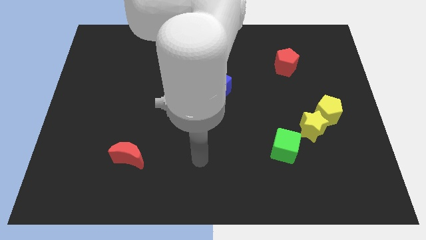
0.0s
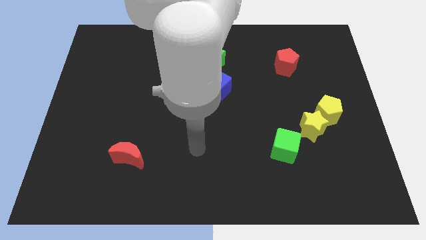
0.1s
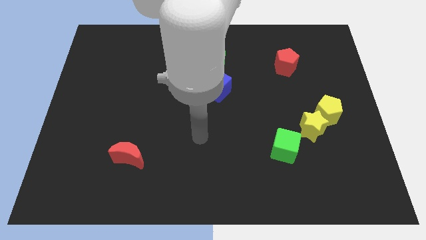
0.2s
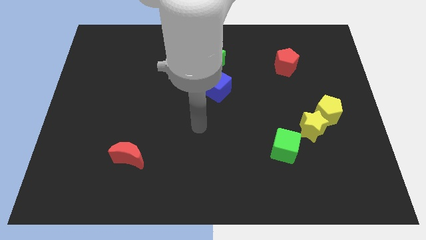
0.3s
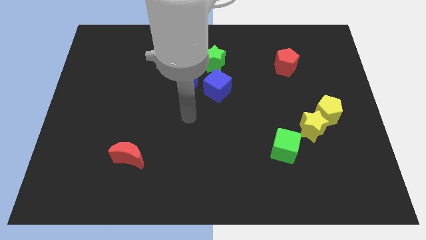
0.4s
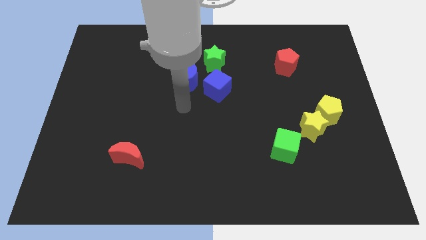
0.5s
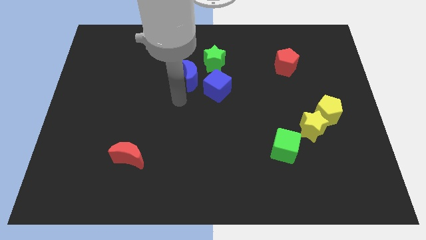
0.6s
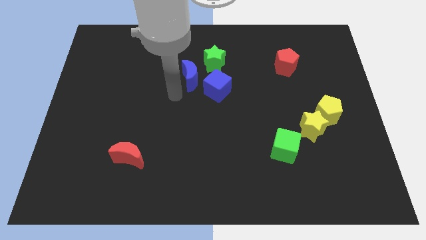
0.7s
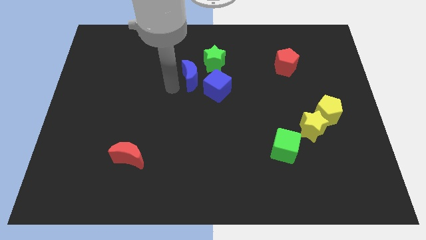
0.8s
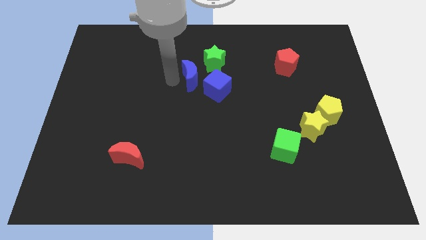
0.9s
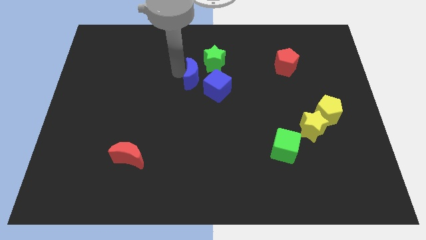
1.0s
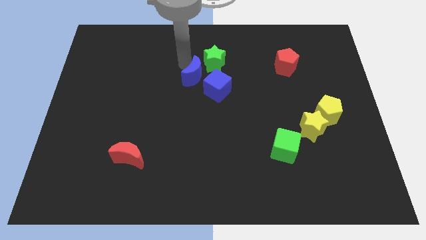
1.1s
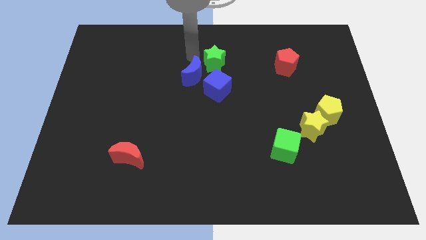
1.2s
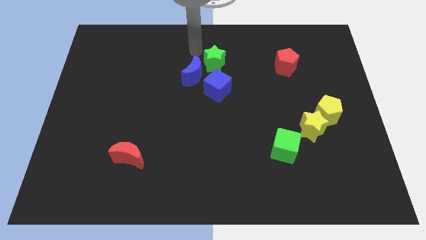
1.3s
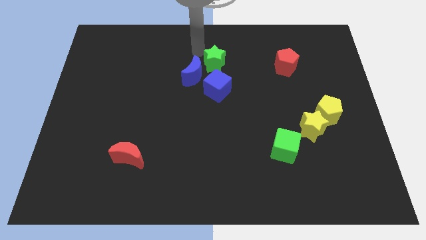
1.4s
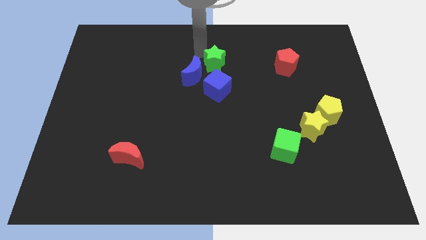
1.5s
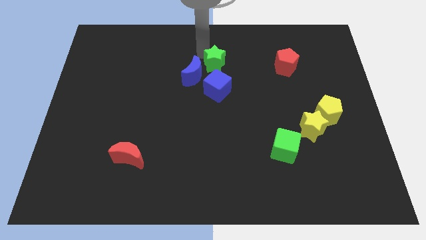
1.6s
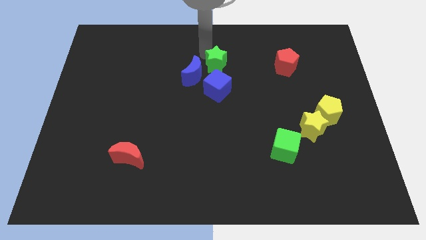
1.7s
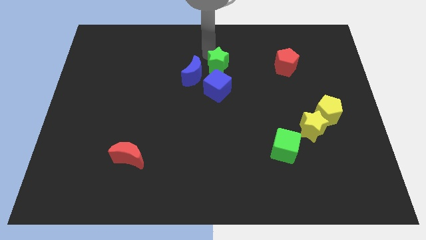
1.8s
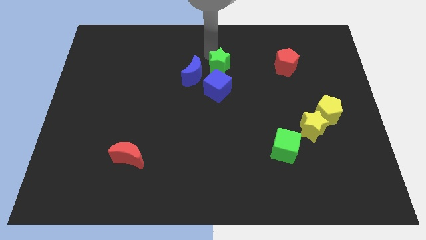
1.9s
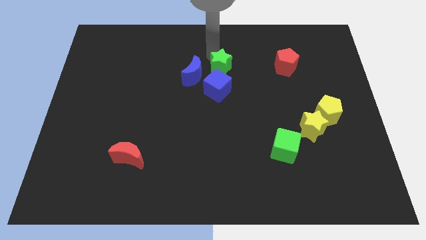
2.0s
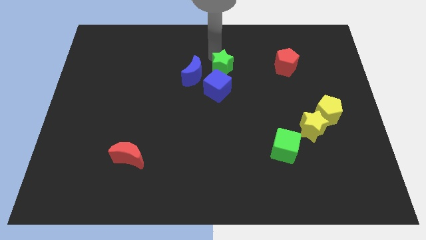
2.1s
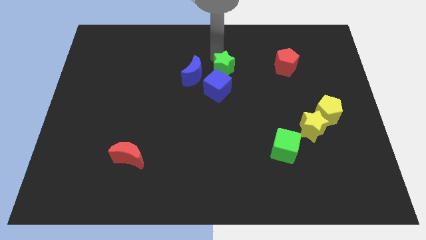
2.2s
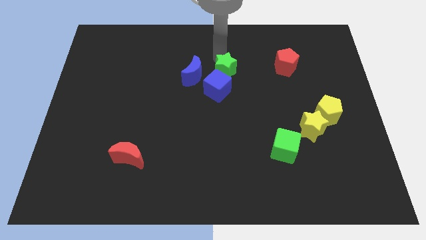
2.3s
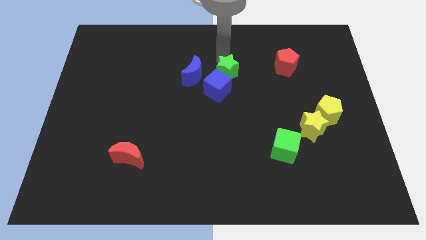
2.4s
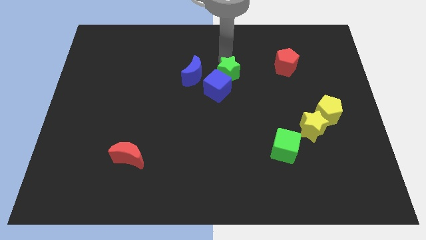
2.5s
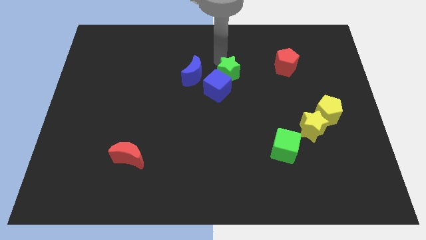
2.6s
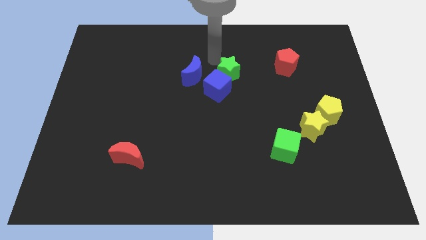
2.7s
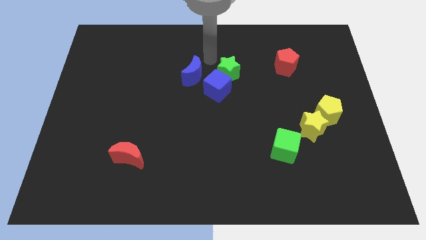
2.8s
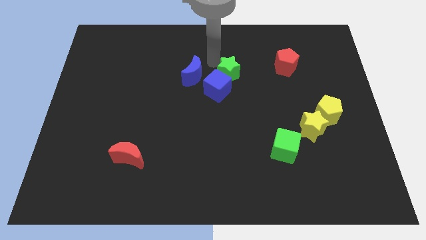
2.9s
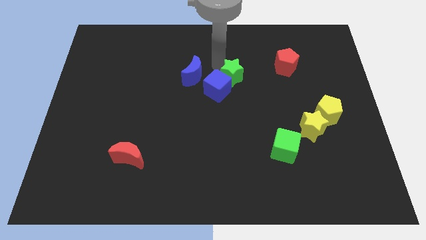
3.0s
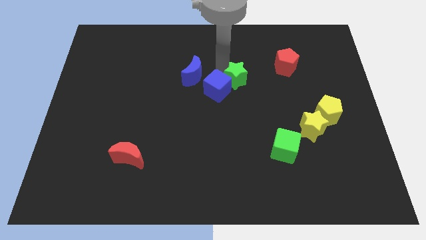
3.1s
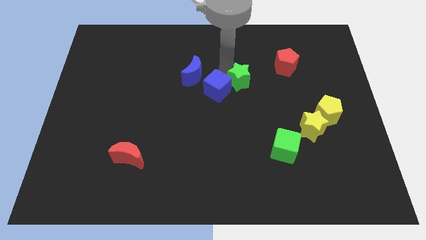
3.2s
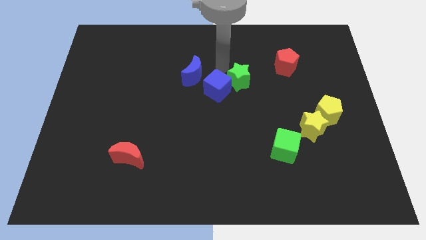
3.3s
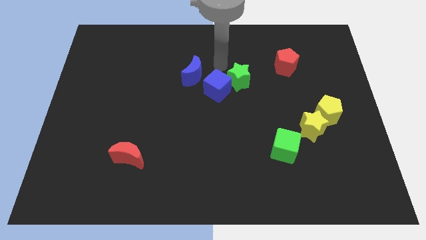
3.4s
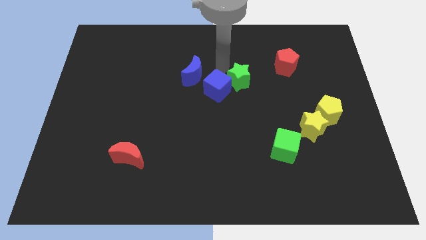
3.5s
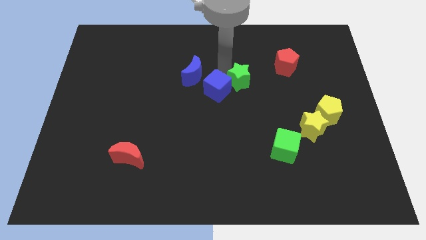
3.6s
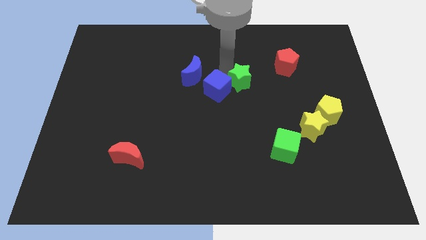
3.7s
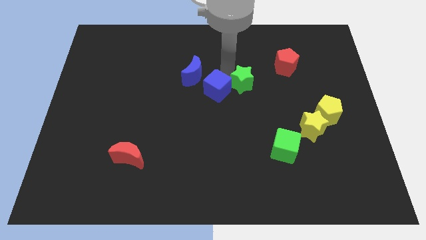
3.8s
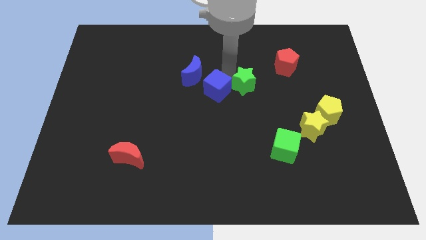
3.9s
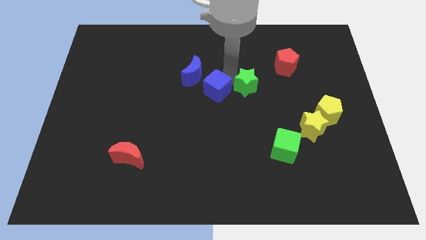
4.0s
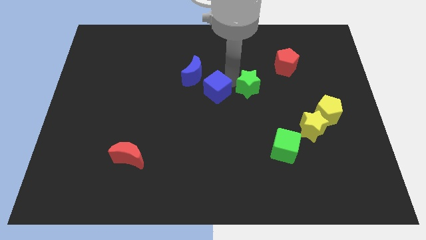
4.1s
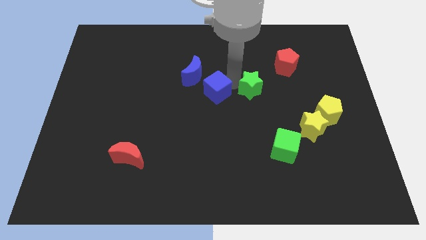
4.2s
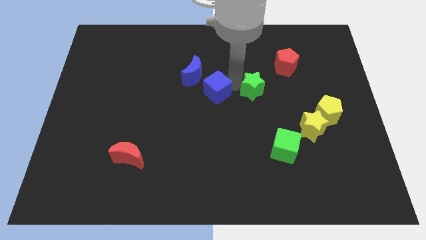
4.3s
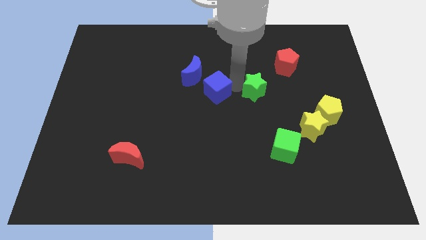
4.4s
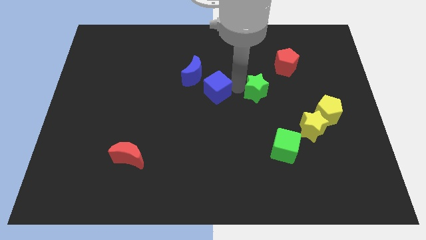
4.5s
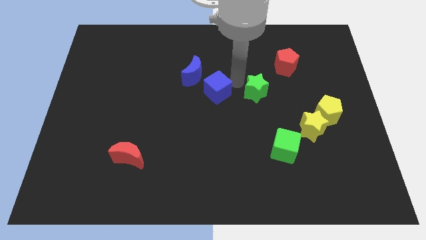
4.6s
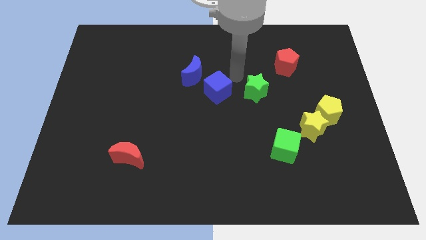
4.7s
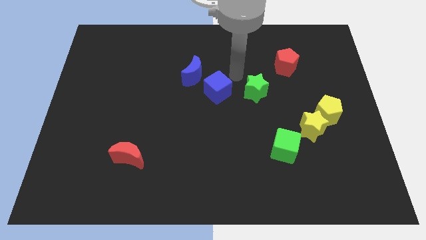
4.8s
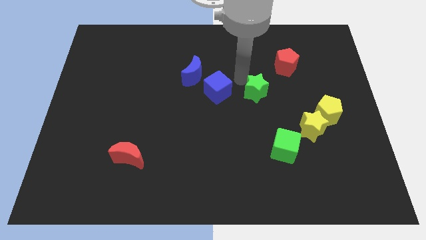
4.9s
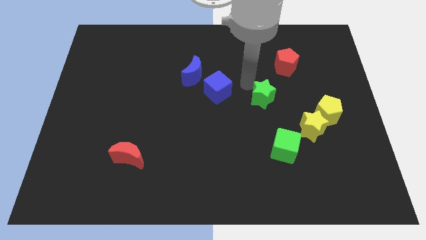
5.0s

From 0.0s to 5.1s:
move the green star to the top of the green cube

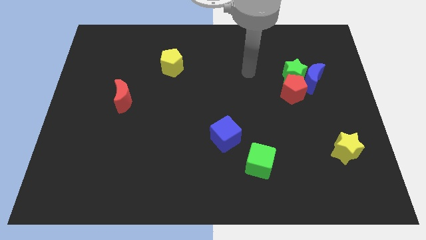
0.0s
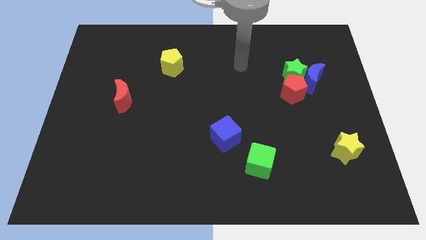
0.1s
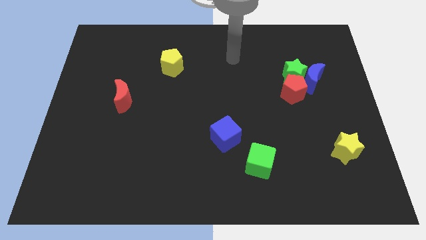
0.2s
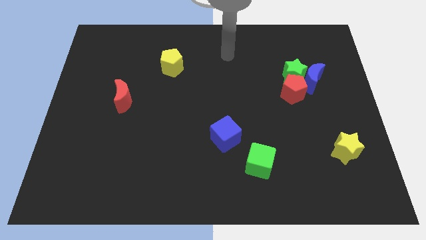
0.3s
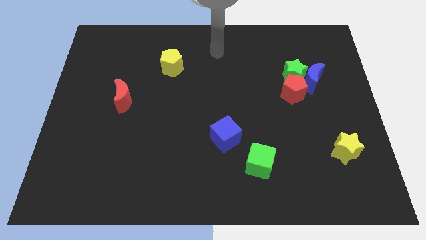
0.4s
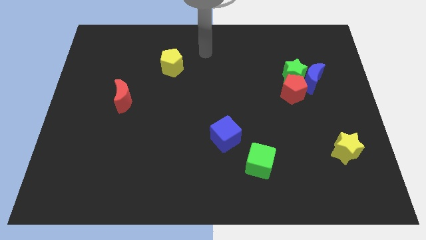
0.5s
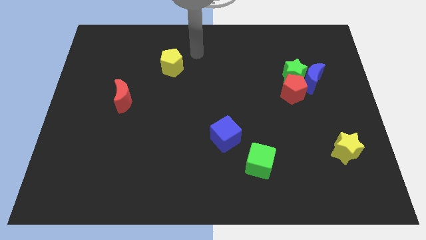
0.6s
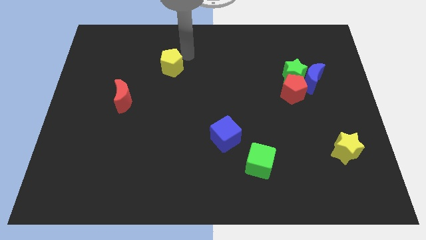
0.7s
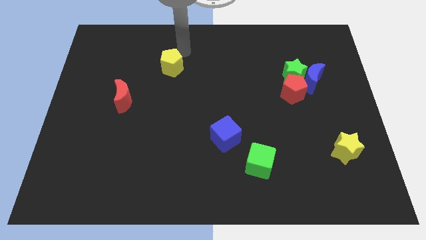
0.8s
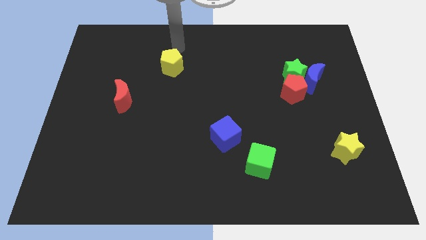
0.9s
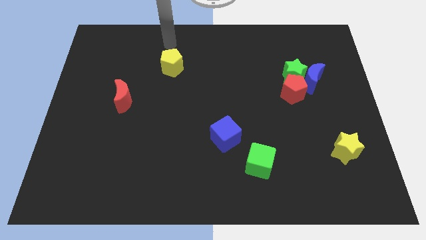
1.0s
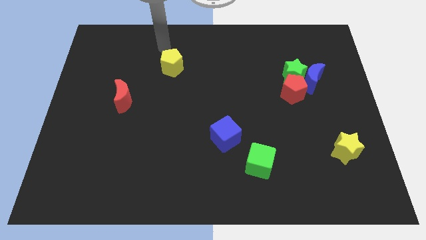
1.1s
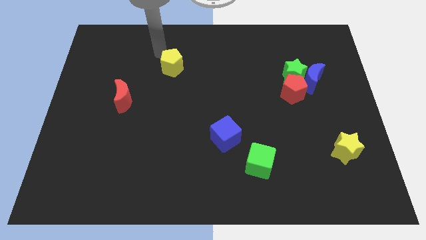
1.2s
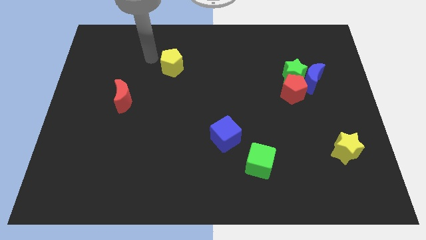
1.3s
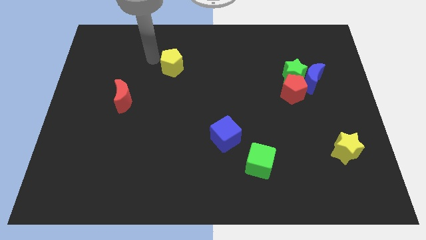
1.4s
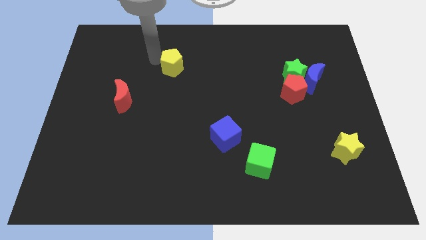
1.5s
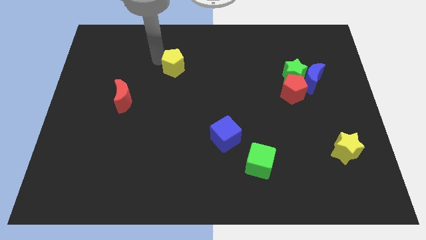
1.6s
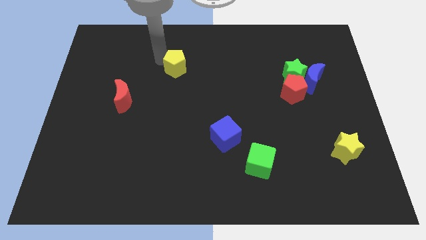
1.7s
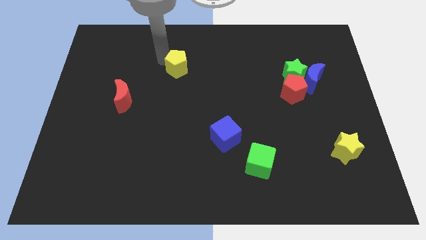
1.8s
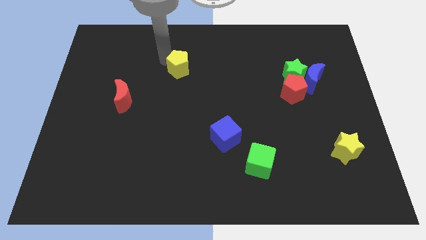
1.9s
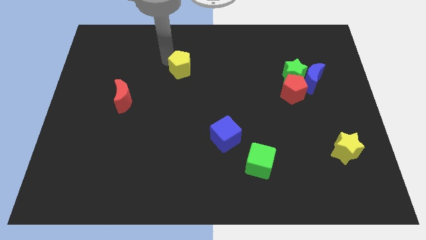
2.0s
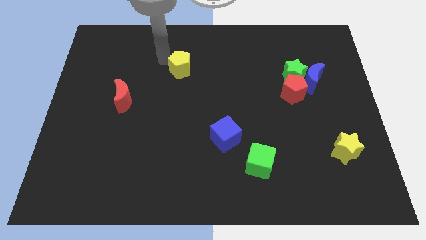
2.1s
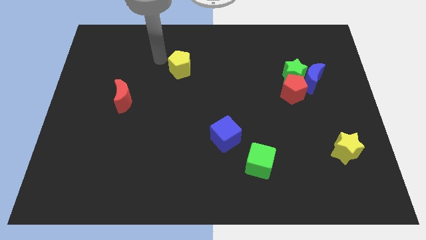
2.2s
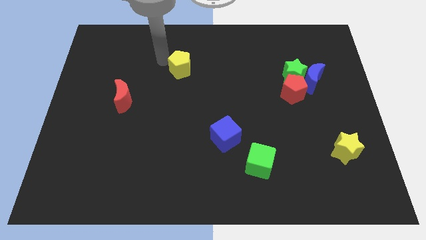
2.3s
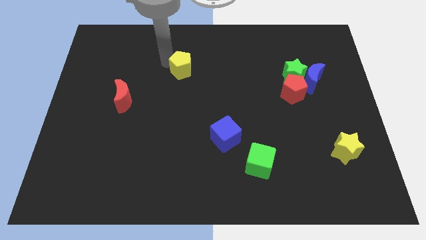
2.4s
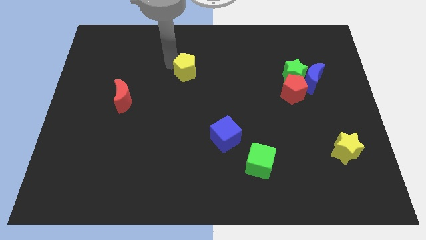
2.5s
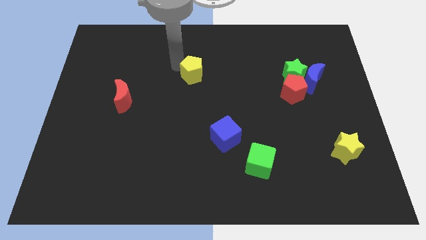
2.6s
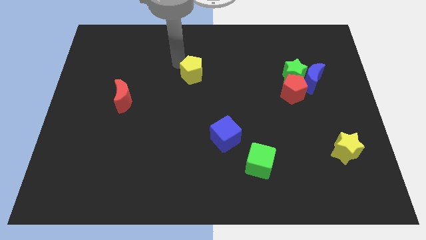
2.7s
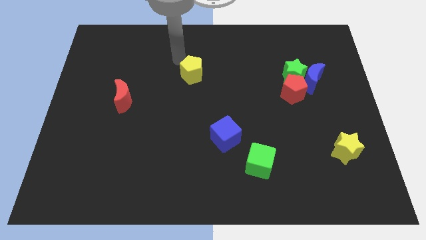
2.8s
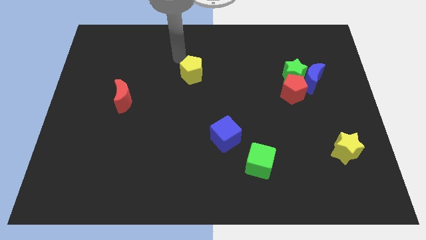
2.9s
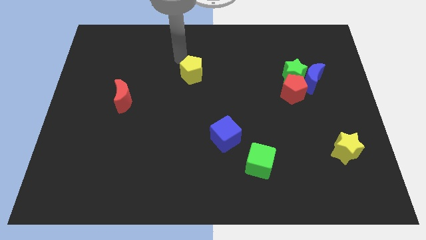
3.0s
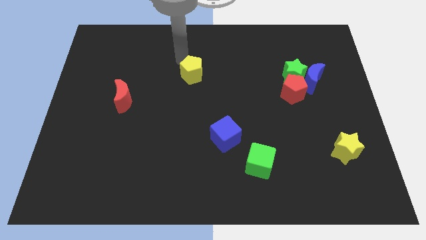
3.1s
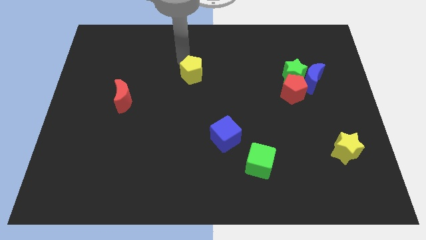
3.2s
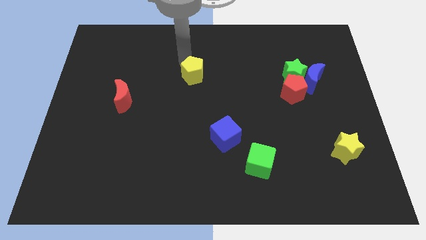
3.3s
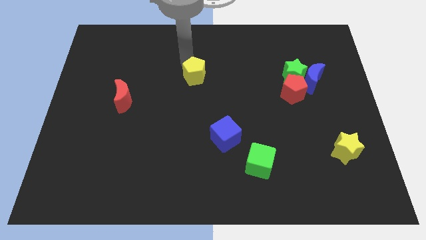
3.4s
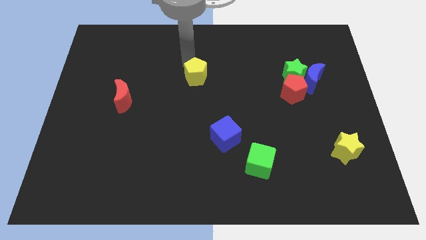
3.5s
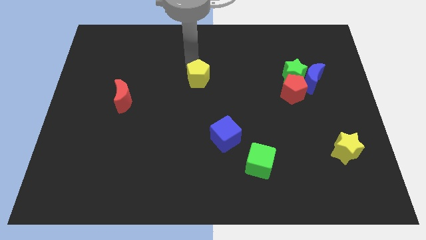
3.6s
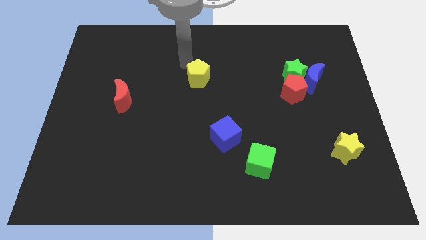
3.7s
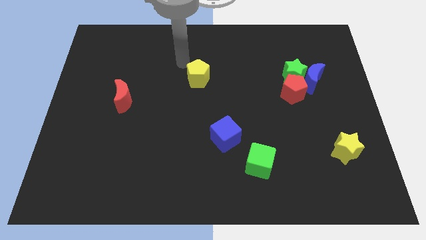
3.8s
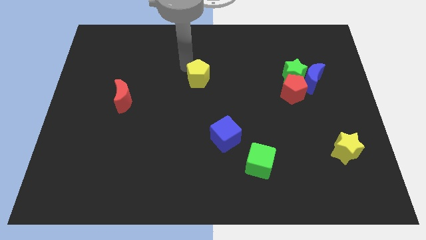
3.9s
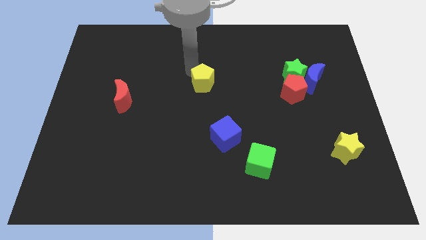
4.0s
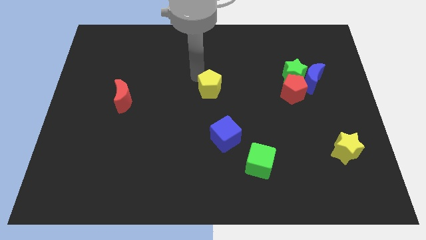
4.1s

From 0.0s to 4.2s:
put the yellow pentagon to the top of the blue cube
